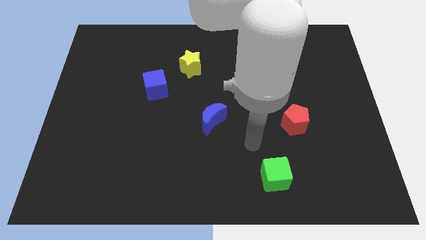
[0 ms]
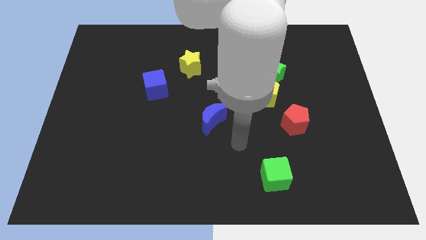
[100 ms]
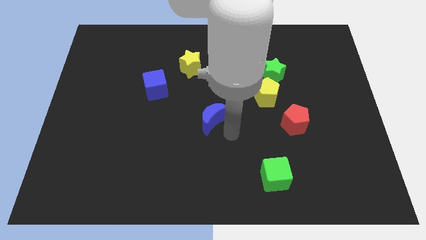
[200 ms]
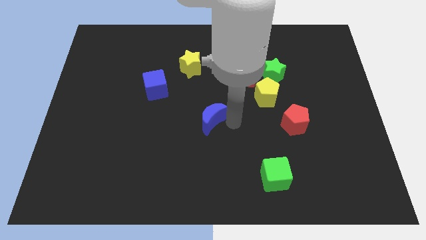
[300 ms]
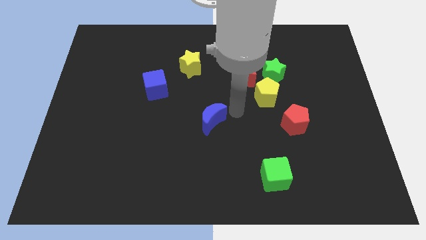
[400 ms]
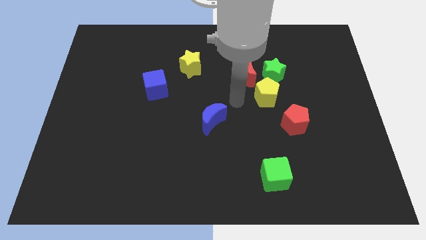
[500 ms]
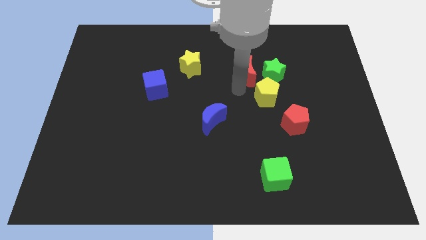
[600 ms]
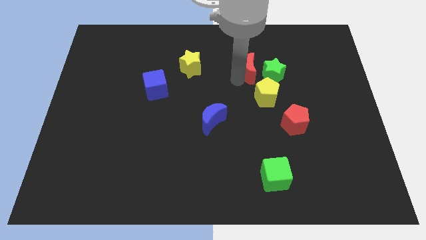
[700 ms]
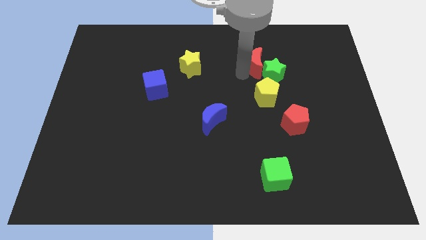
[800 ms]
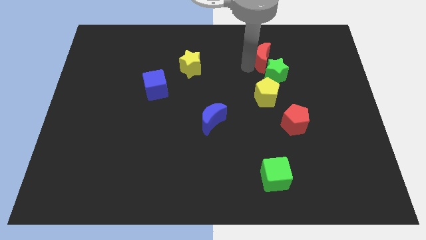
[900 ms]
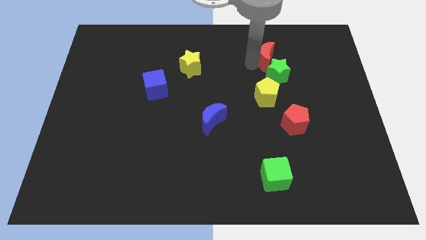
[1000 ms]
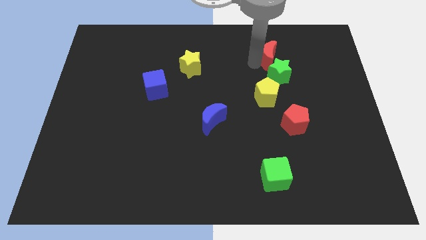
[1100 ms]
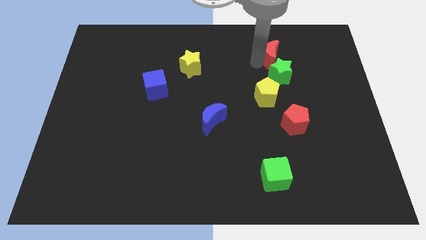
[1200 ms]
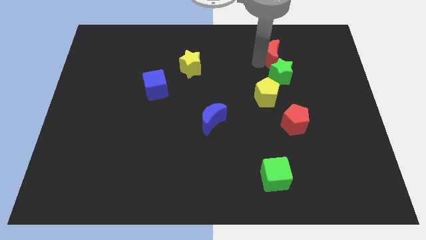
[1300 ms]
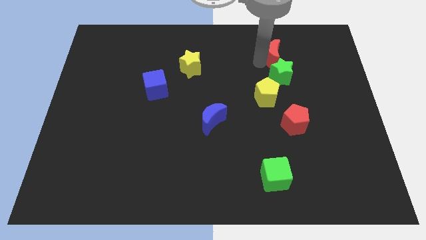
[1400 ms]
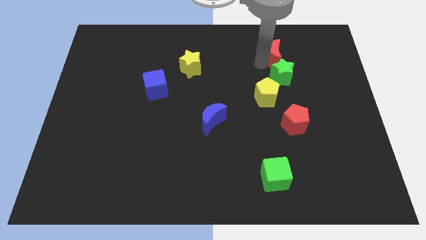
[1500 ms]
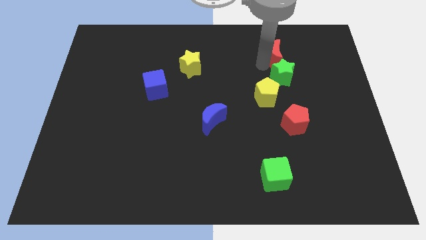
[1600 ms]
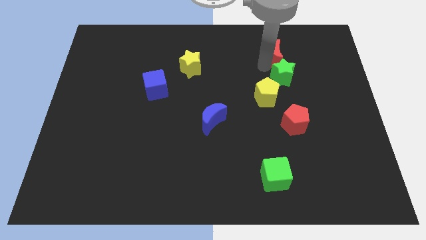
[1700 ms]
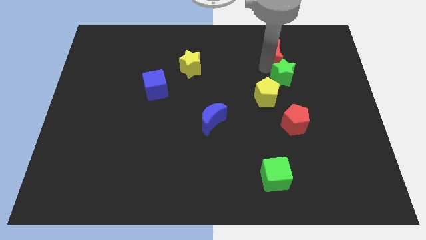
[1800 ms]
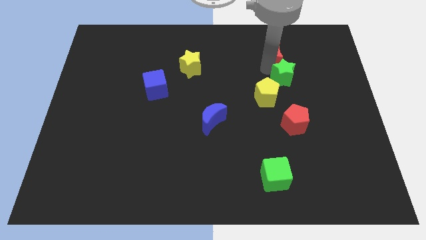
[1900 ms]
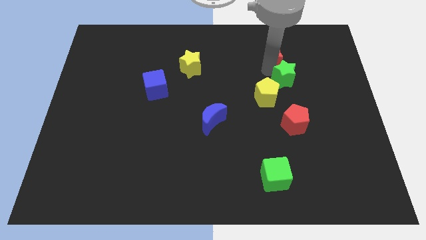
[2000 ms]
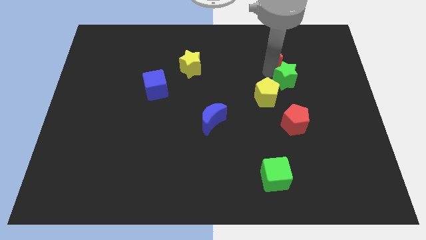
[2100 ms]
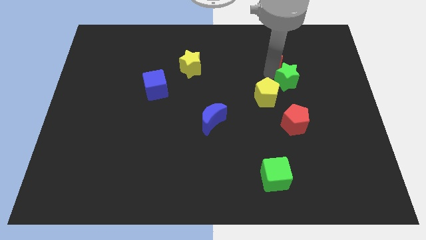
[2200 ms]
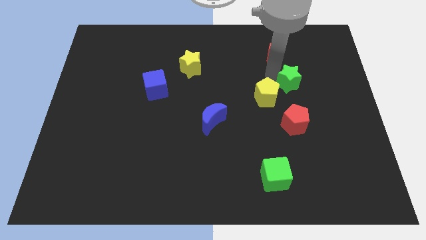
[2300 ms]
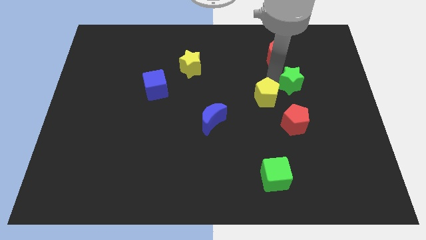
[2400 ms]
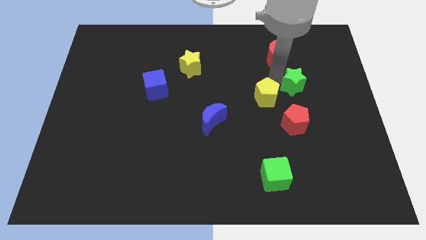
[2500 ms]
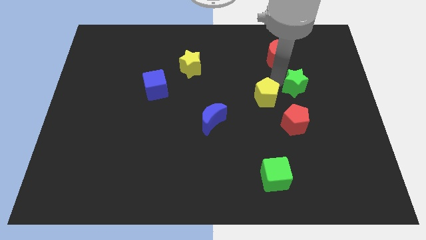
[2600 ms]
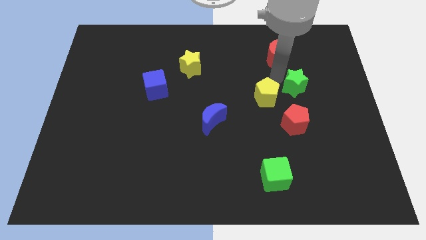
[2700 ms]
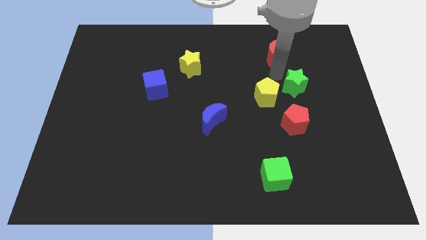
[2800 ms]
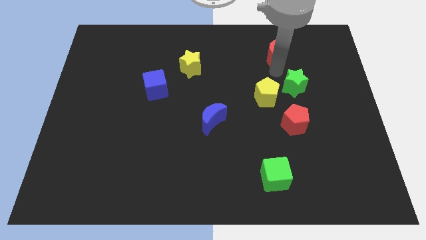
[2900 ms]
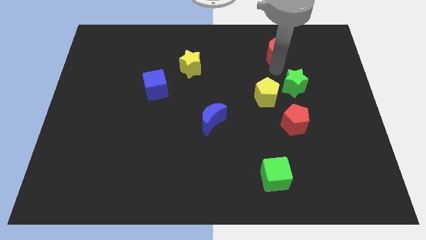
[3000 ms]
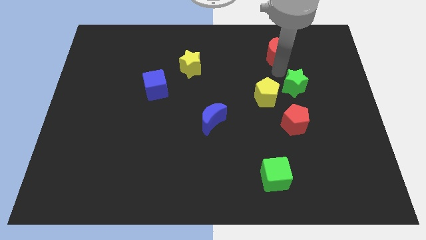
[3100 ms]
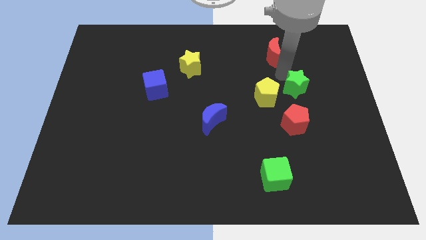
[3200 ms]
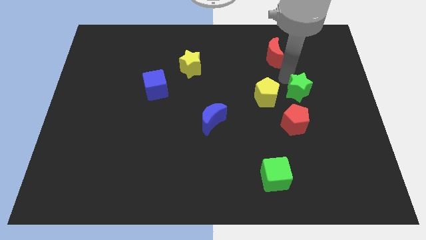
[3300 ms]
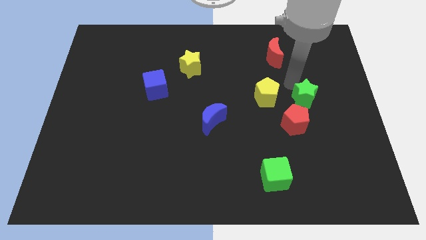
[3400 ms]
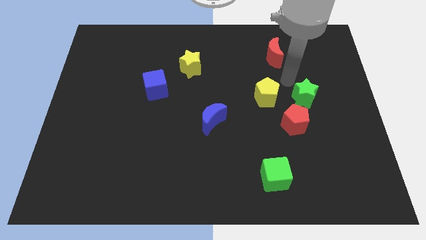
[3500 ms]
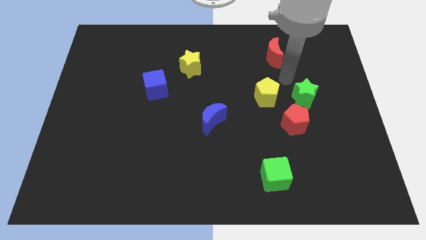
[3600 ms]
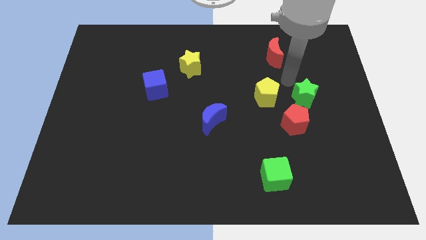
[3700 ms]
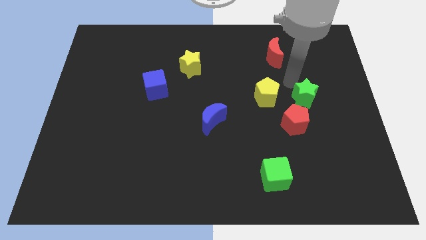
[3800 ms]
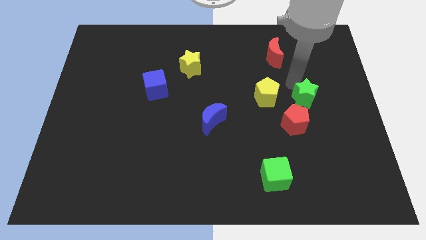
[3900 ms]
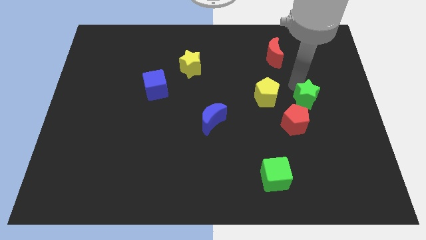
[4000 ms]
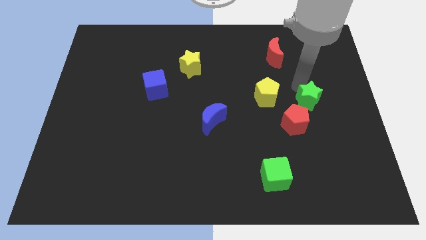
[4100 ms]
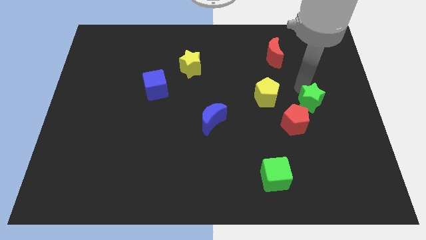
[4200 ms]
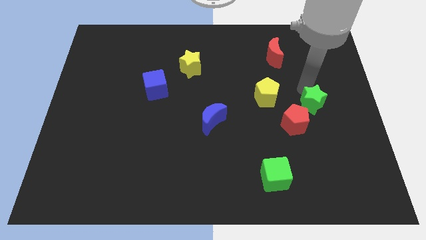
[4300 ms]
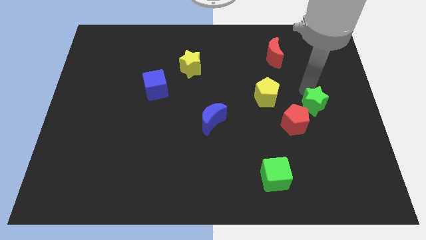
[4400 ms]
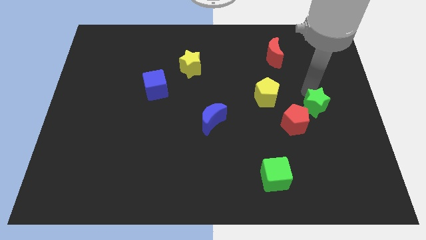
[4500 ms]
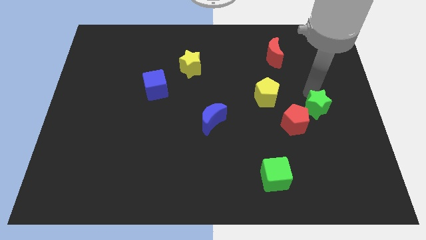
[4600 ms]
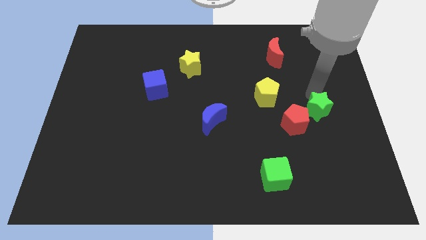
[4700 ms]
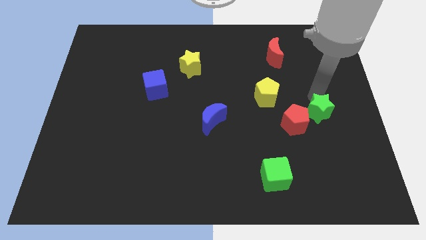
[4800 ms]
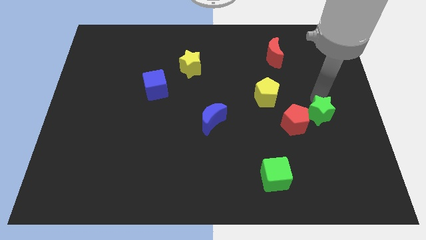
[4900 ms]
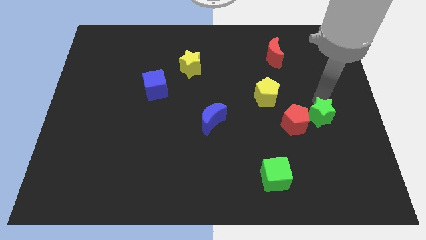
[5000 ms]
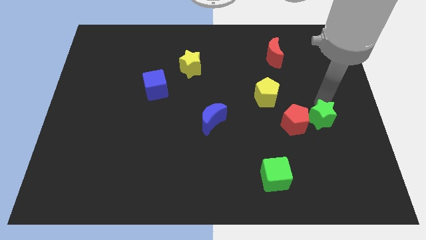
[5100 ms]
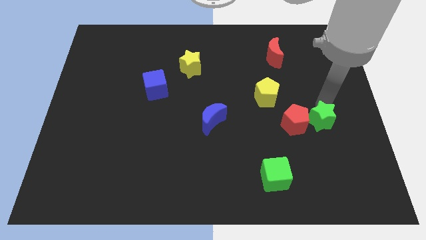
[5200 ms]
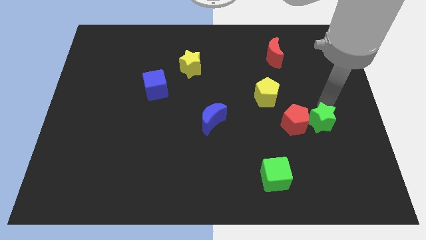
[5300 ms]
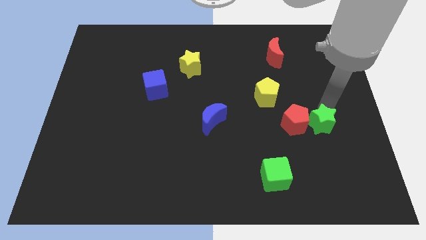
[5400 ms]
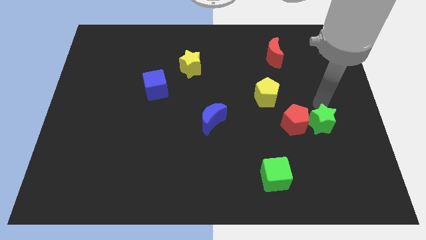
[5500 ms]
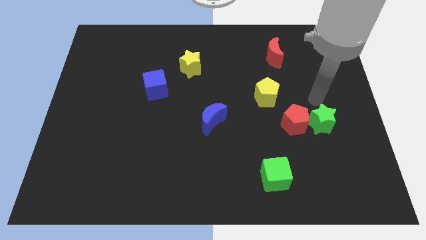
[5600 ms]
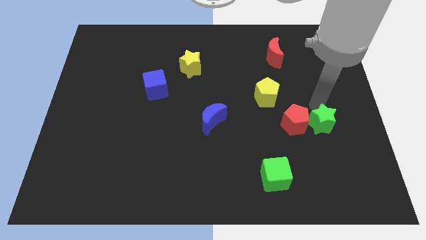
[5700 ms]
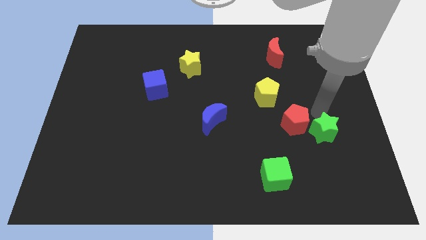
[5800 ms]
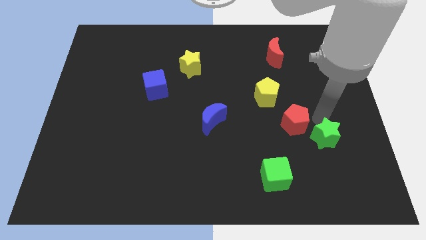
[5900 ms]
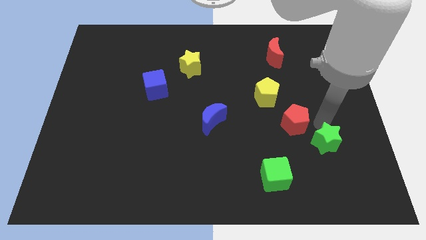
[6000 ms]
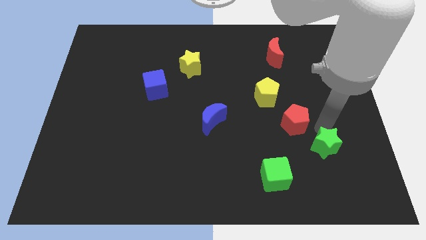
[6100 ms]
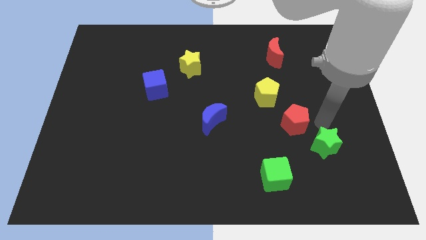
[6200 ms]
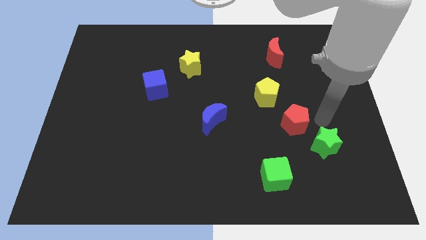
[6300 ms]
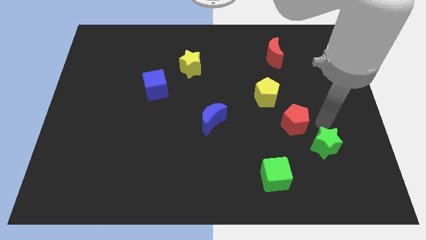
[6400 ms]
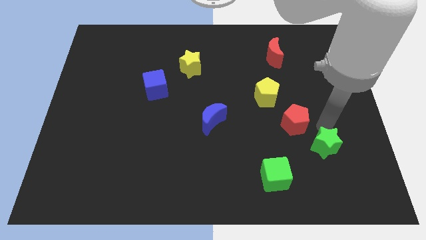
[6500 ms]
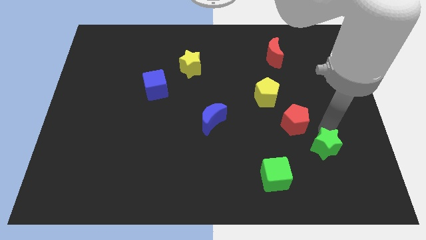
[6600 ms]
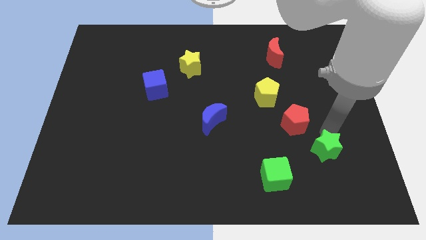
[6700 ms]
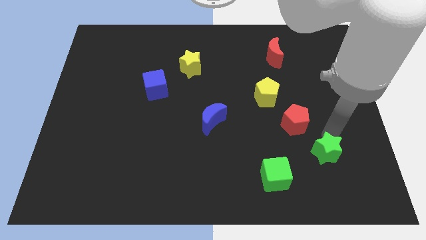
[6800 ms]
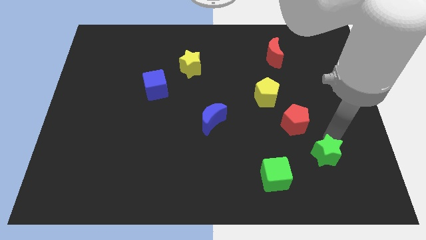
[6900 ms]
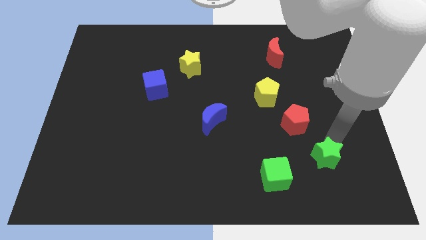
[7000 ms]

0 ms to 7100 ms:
push the green star to the right side of the green cube
